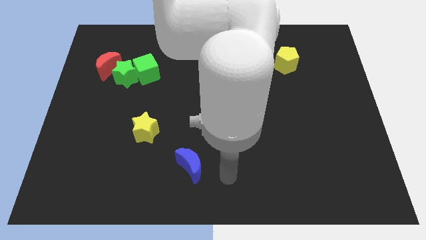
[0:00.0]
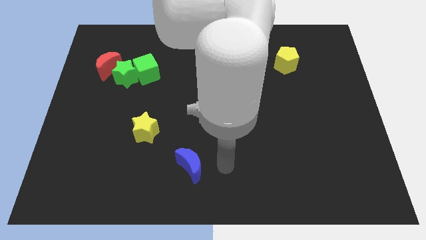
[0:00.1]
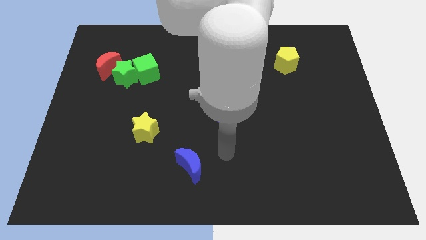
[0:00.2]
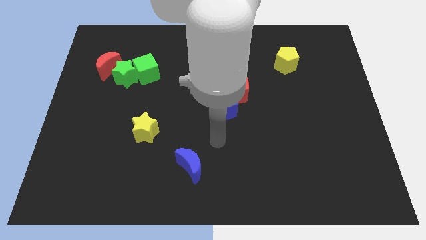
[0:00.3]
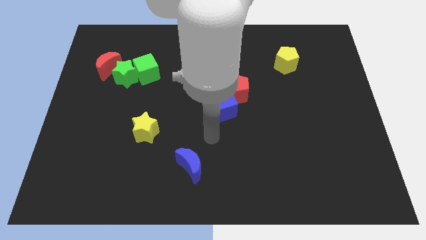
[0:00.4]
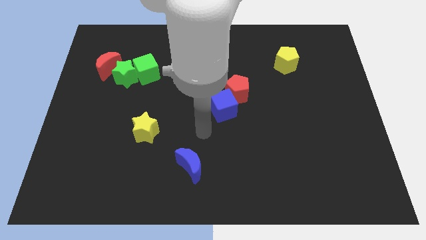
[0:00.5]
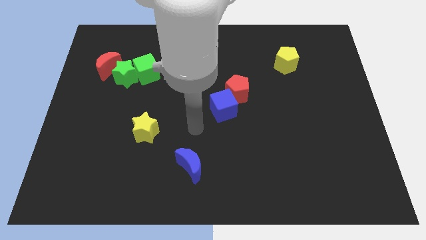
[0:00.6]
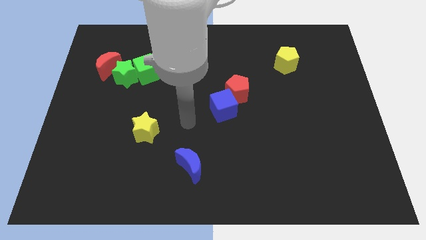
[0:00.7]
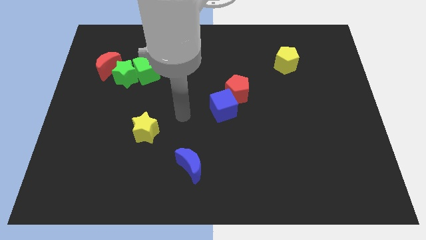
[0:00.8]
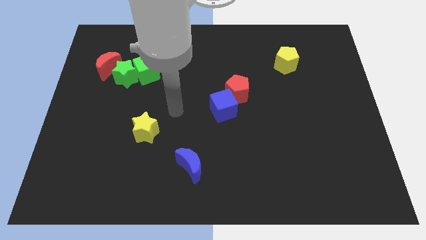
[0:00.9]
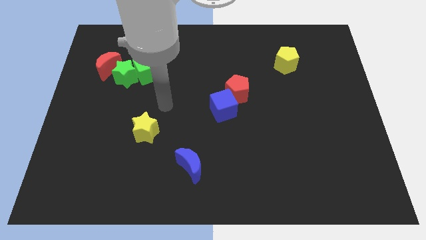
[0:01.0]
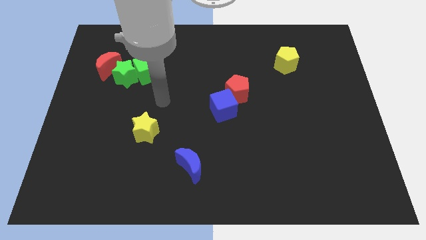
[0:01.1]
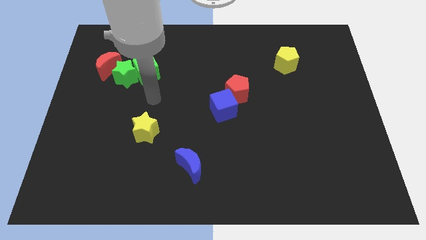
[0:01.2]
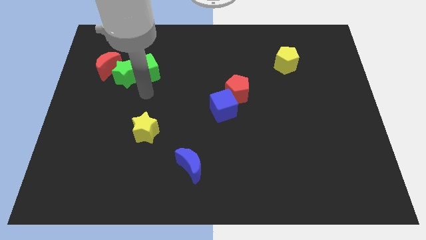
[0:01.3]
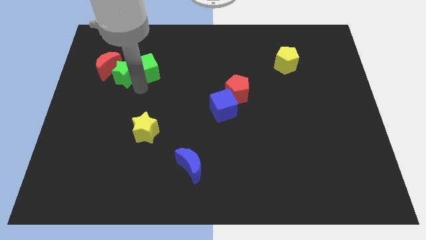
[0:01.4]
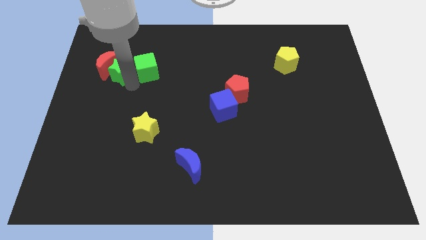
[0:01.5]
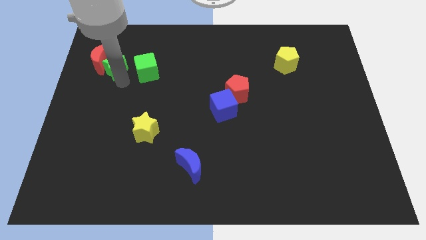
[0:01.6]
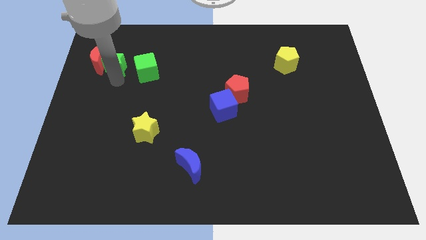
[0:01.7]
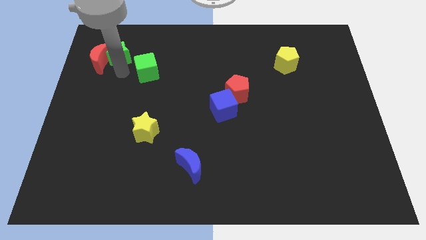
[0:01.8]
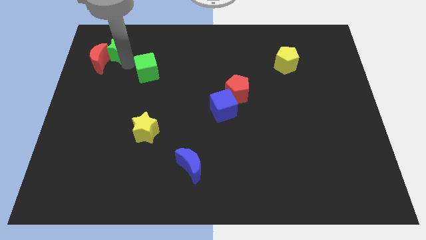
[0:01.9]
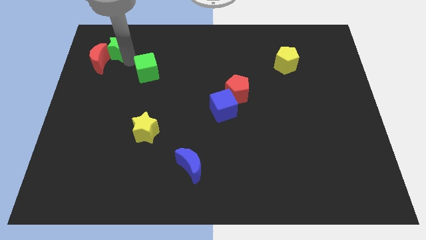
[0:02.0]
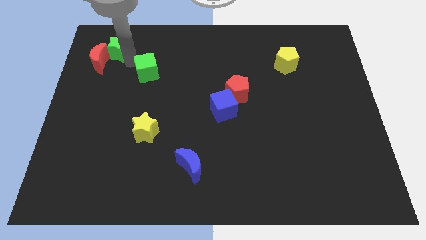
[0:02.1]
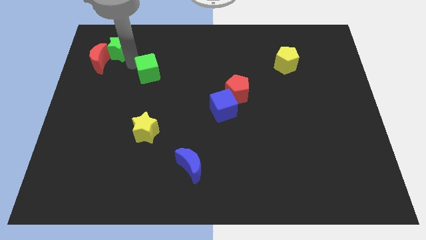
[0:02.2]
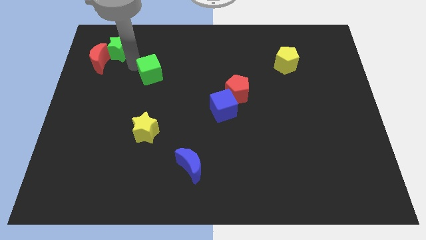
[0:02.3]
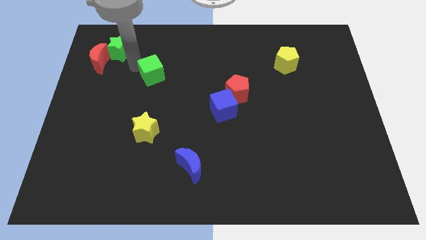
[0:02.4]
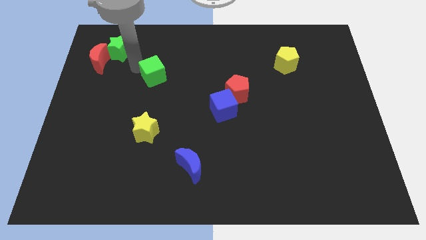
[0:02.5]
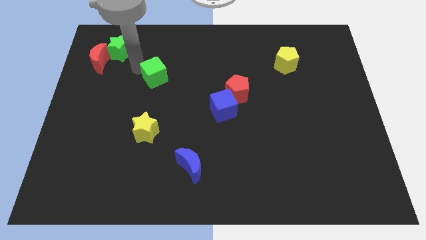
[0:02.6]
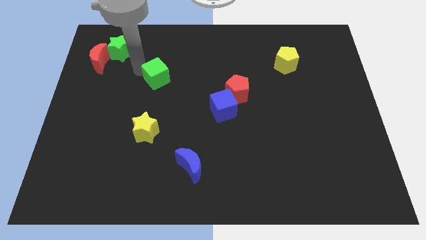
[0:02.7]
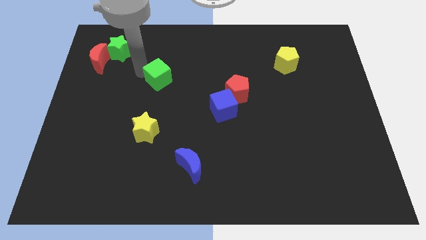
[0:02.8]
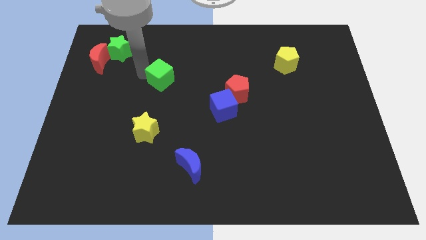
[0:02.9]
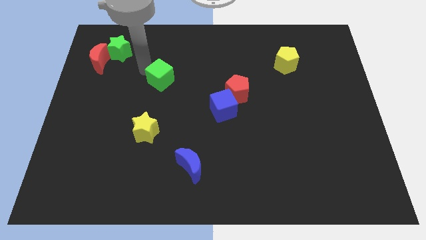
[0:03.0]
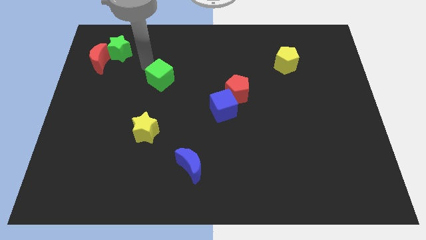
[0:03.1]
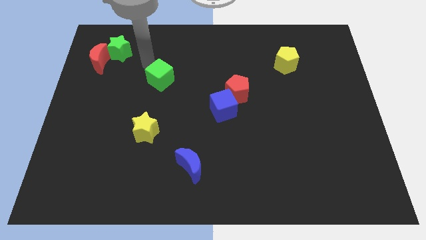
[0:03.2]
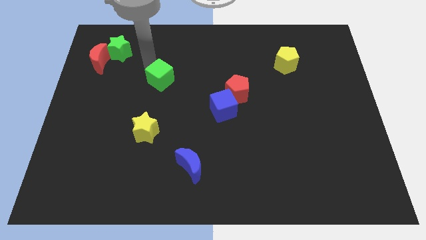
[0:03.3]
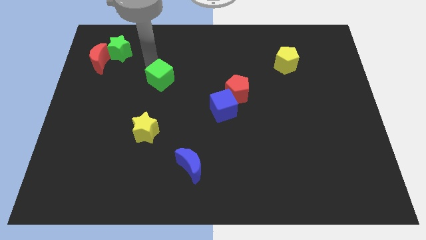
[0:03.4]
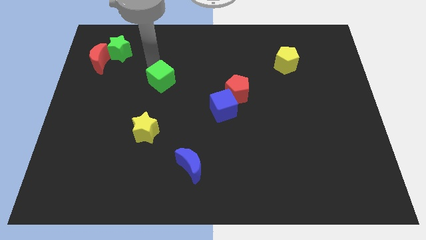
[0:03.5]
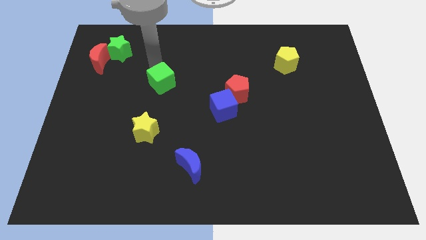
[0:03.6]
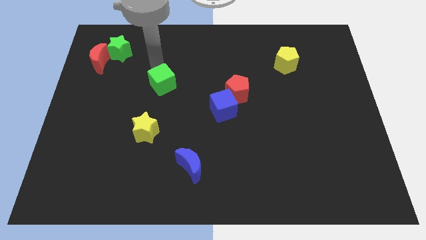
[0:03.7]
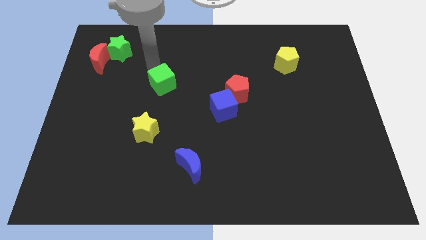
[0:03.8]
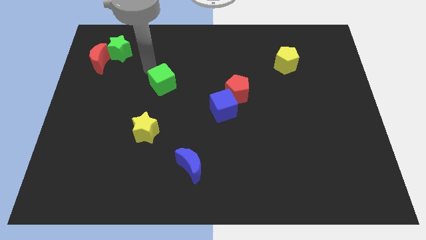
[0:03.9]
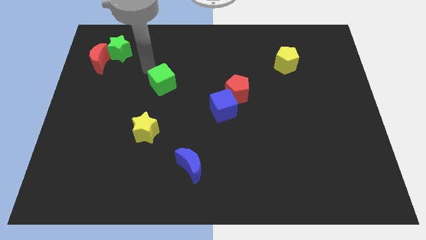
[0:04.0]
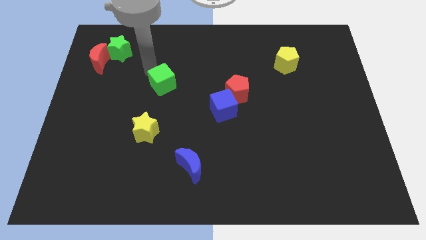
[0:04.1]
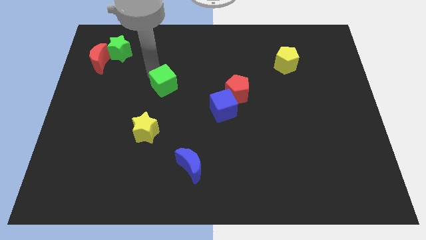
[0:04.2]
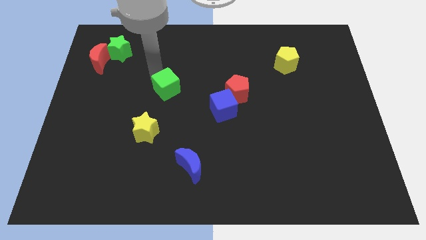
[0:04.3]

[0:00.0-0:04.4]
slide the green cube down and then to the right somewhat

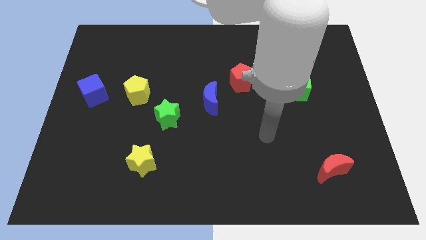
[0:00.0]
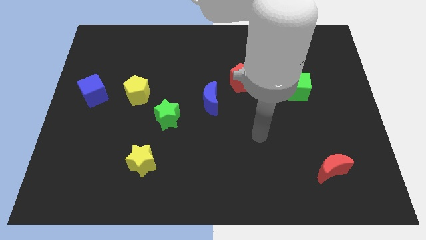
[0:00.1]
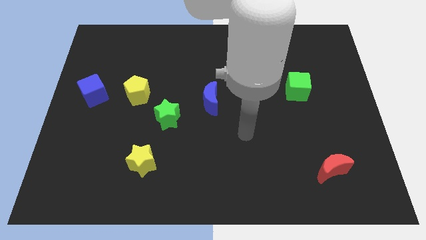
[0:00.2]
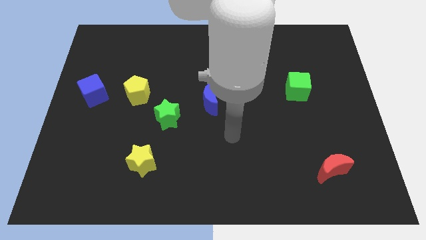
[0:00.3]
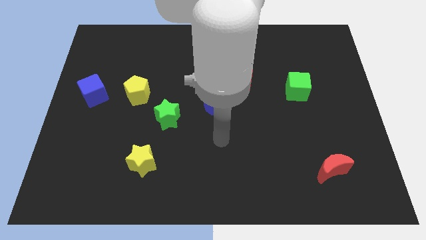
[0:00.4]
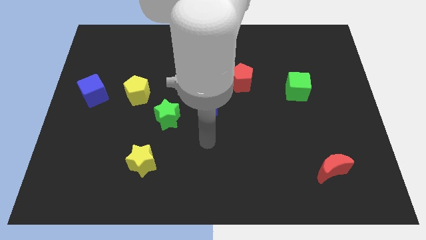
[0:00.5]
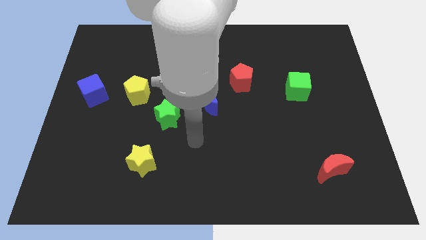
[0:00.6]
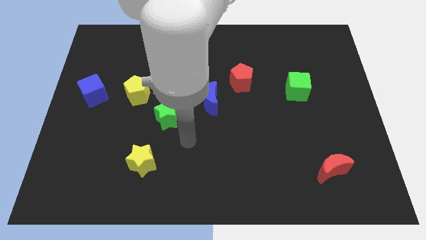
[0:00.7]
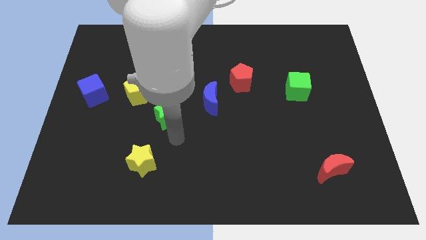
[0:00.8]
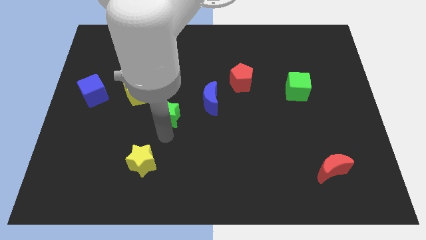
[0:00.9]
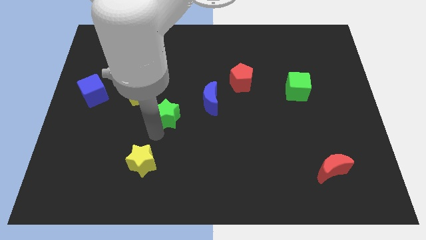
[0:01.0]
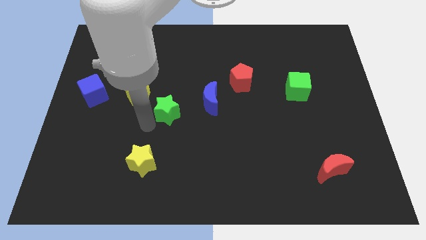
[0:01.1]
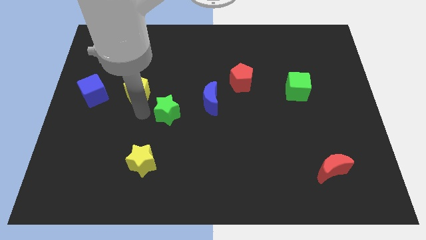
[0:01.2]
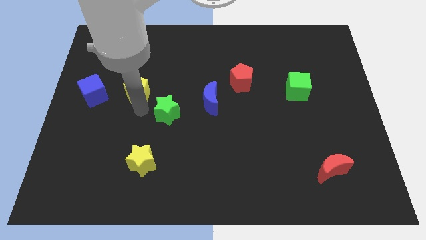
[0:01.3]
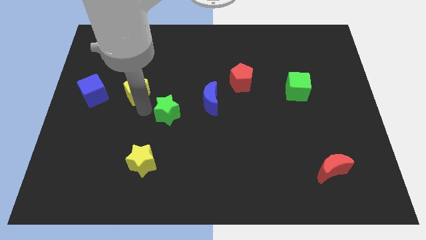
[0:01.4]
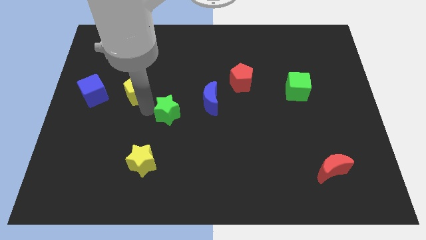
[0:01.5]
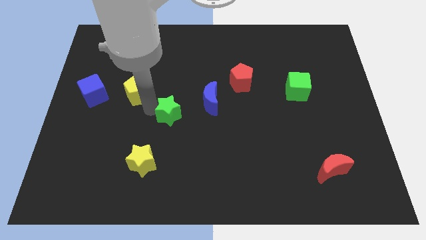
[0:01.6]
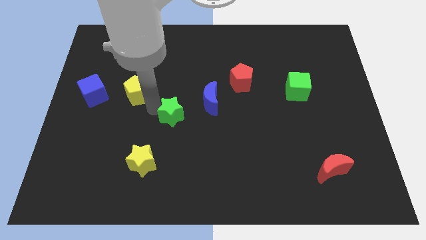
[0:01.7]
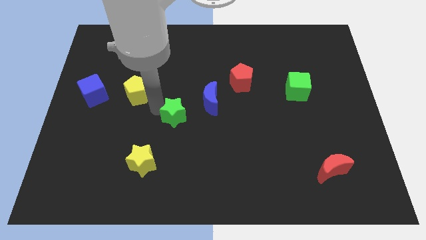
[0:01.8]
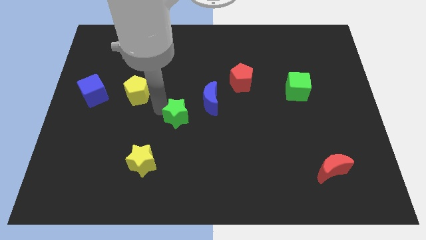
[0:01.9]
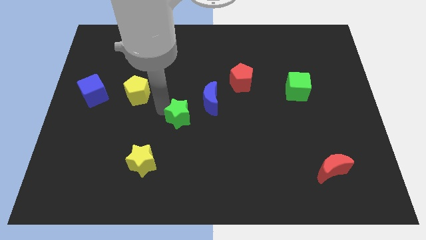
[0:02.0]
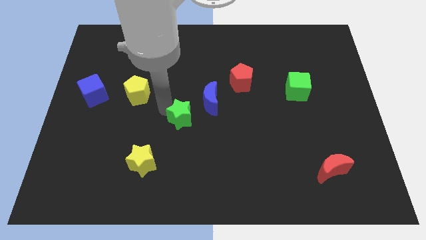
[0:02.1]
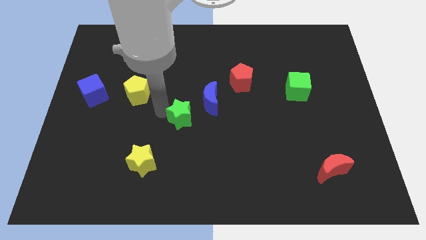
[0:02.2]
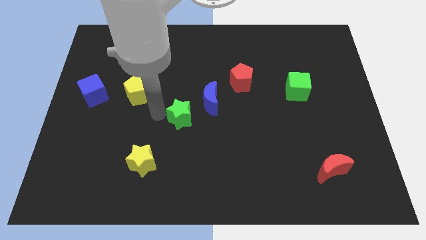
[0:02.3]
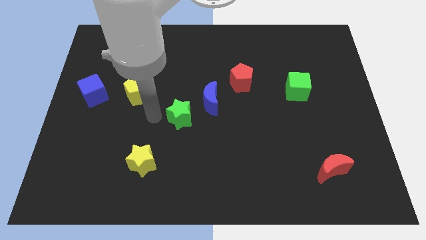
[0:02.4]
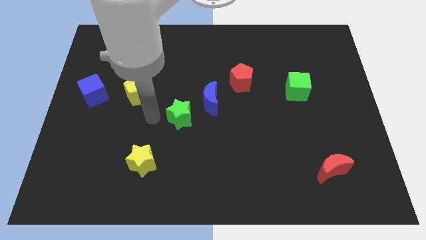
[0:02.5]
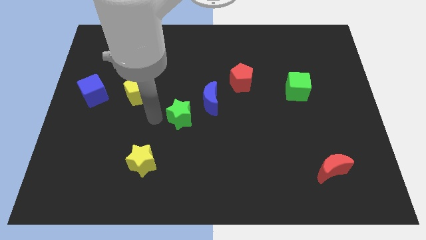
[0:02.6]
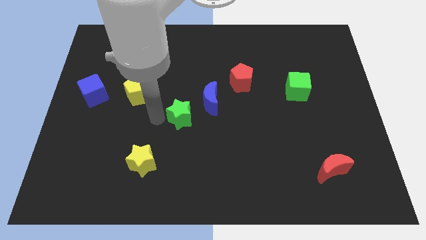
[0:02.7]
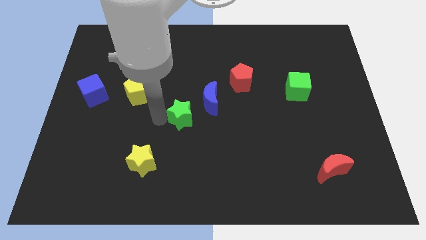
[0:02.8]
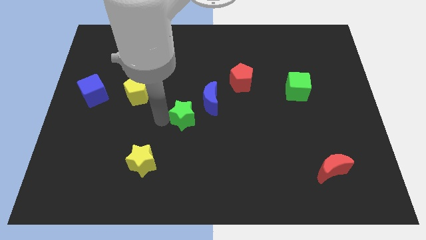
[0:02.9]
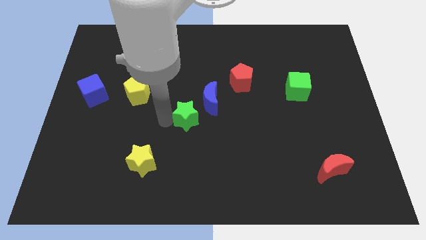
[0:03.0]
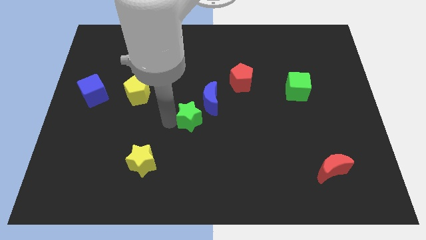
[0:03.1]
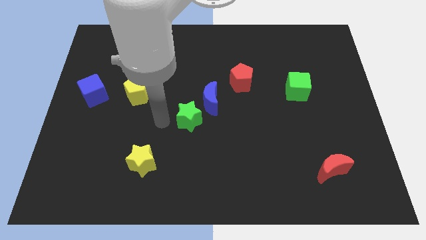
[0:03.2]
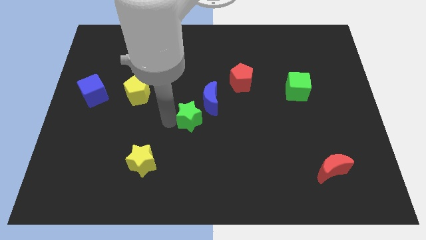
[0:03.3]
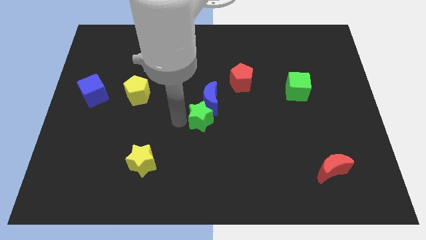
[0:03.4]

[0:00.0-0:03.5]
slightly push the green star to the right
